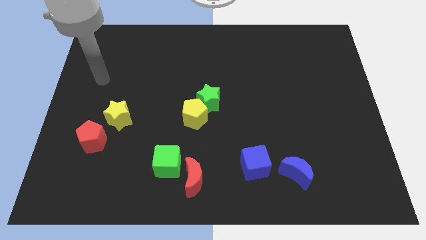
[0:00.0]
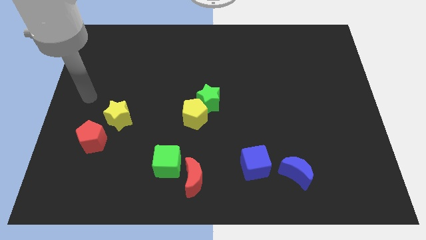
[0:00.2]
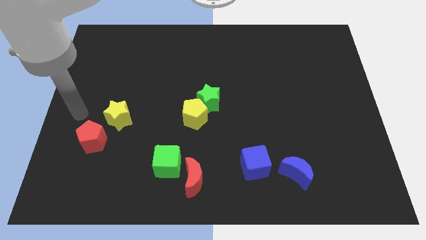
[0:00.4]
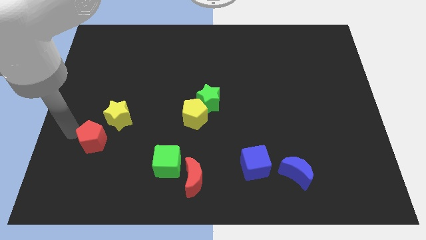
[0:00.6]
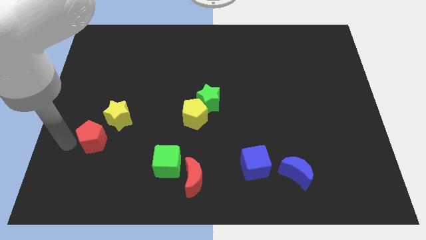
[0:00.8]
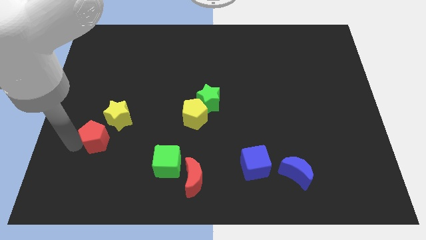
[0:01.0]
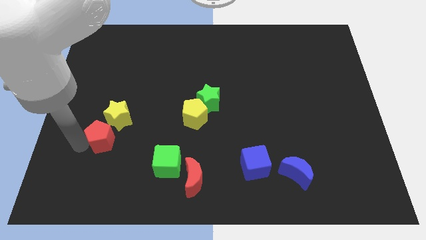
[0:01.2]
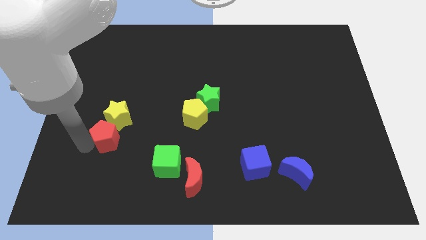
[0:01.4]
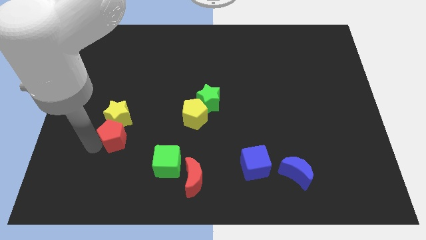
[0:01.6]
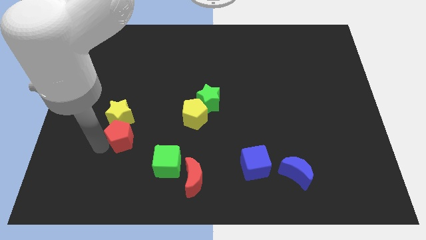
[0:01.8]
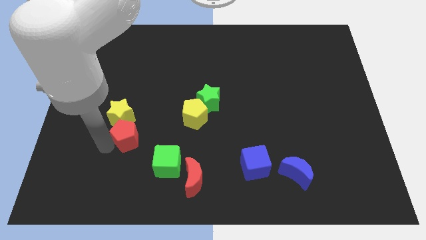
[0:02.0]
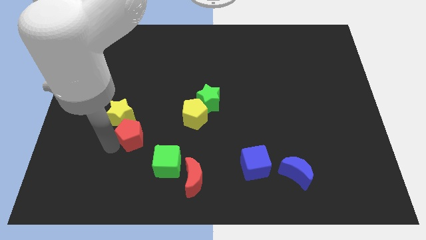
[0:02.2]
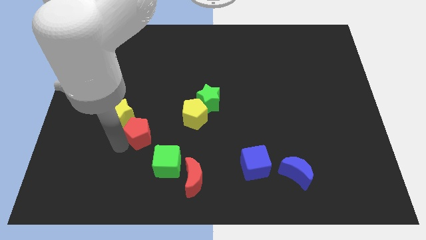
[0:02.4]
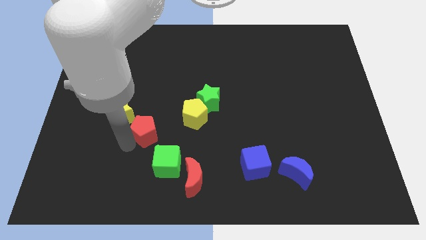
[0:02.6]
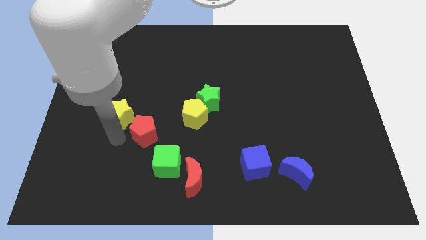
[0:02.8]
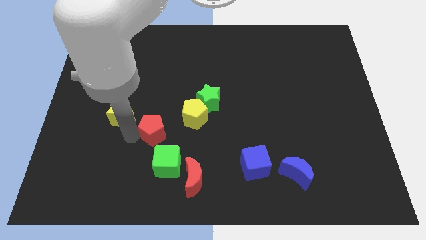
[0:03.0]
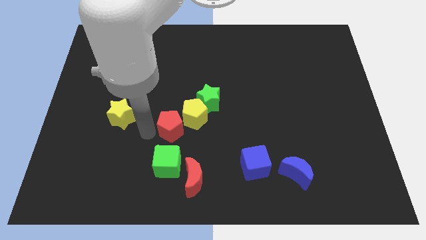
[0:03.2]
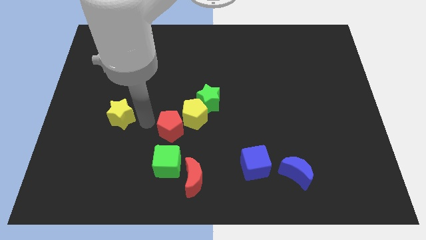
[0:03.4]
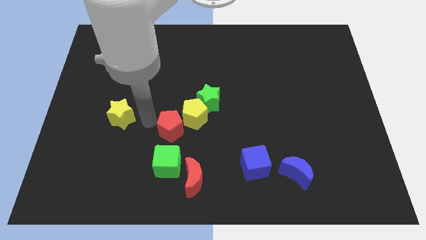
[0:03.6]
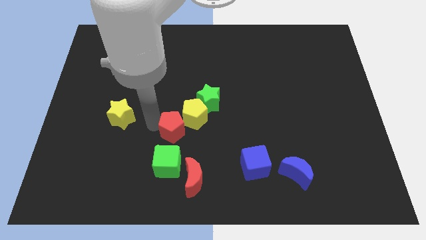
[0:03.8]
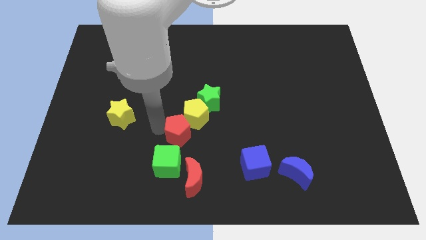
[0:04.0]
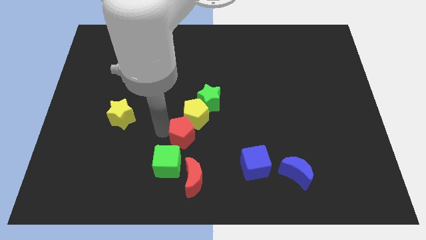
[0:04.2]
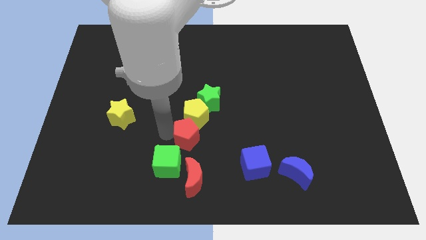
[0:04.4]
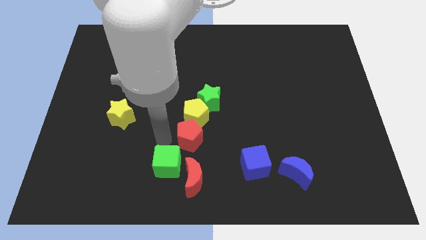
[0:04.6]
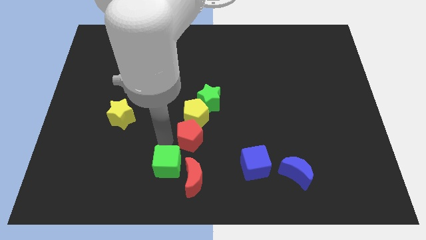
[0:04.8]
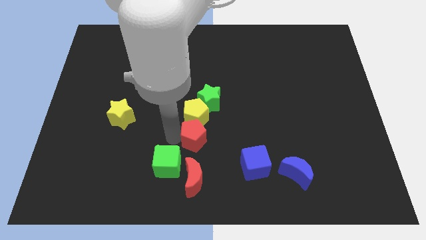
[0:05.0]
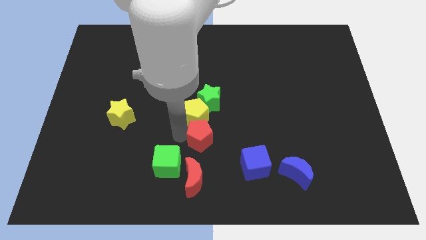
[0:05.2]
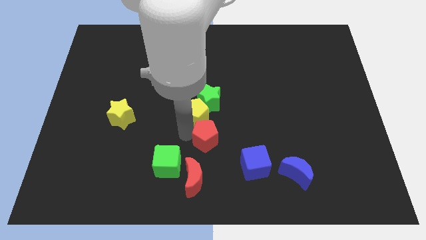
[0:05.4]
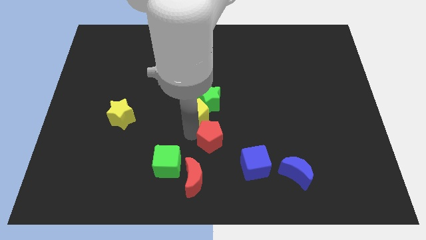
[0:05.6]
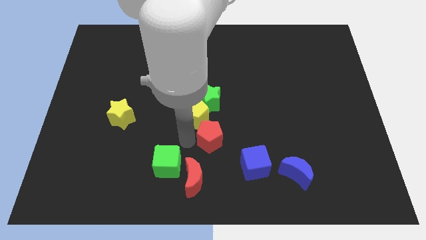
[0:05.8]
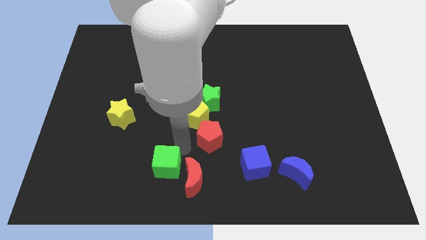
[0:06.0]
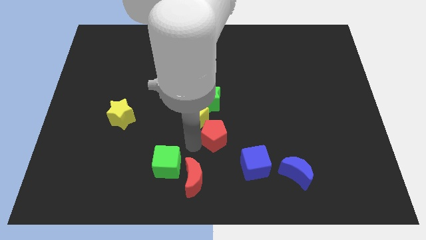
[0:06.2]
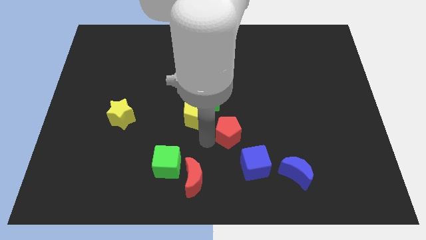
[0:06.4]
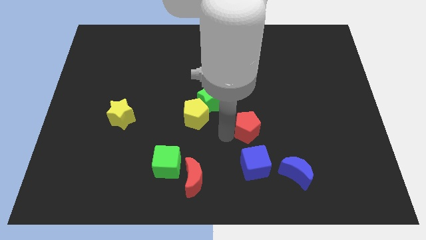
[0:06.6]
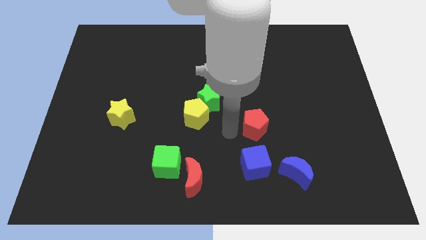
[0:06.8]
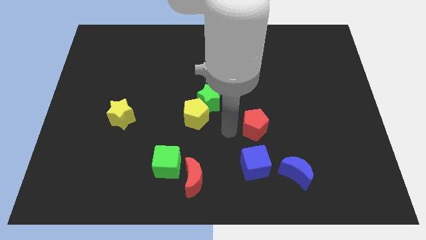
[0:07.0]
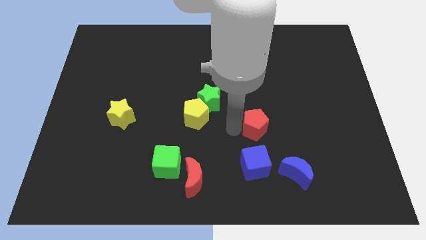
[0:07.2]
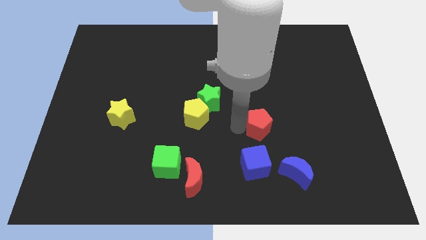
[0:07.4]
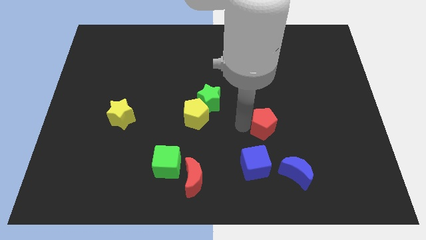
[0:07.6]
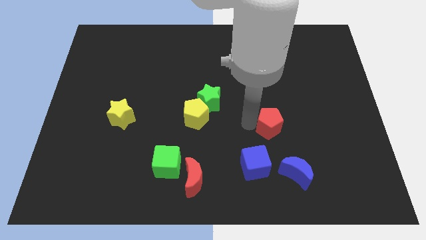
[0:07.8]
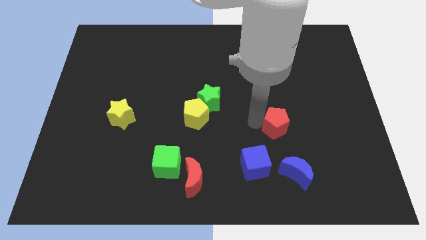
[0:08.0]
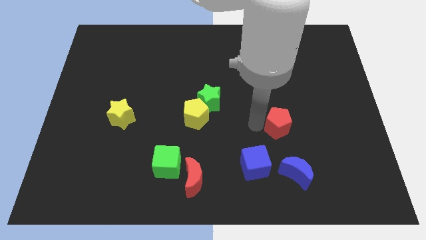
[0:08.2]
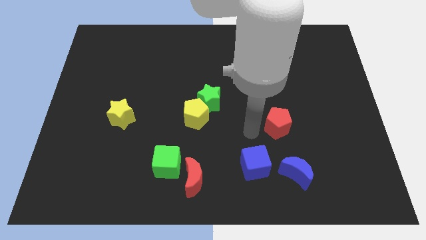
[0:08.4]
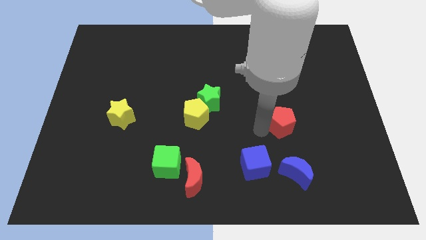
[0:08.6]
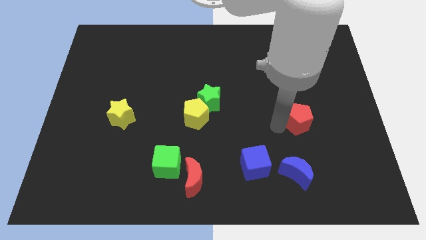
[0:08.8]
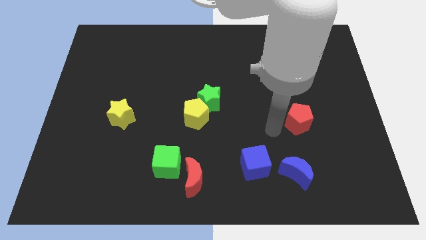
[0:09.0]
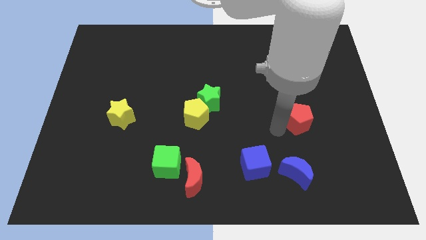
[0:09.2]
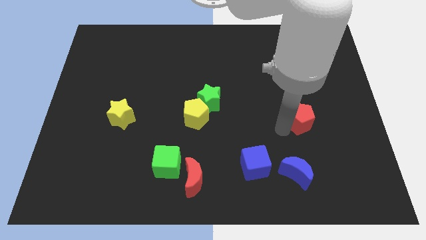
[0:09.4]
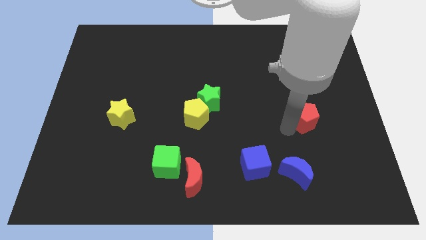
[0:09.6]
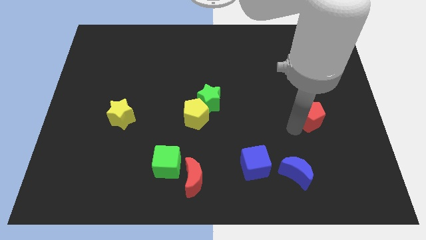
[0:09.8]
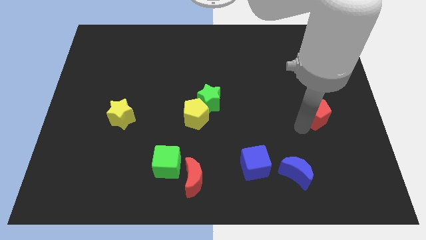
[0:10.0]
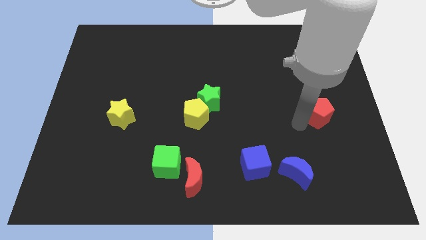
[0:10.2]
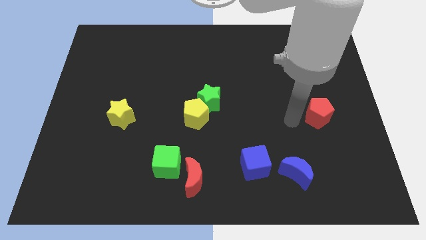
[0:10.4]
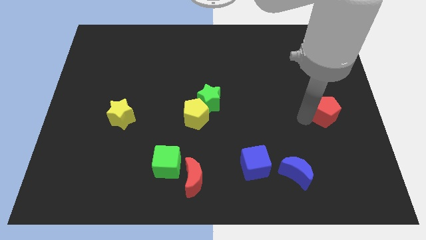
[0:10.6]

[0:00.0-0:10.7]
put the red pentagon to the right side of the board
